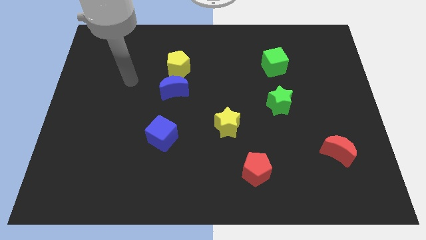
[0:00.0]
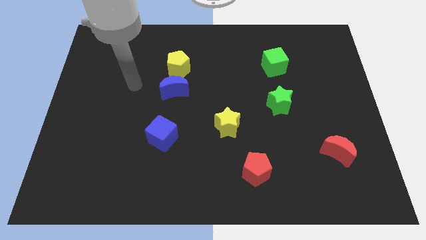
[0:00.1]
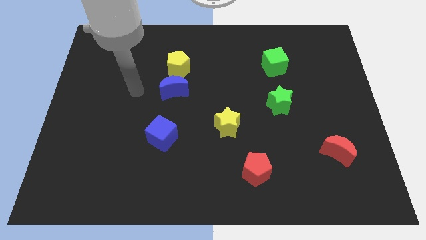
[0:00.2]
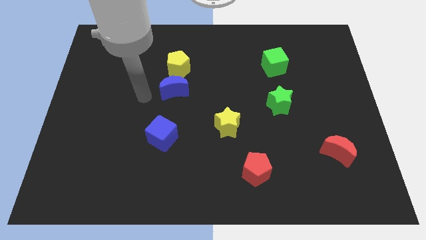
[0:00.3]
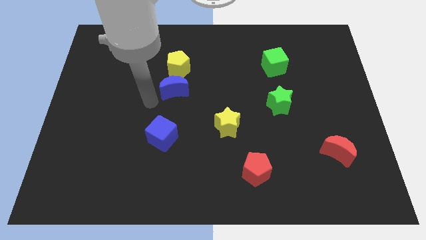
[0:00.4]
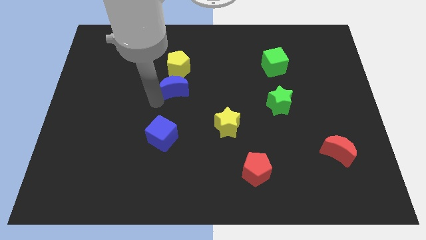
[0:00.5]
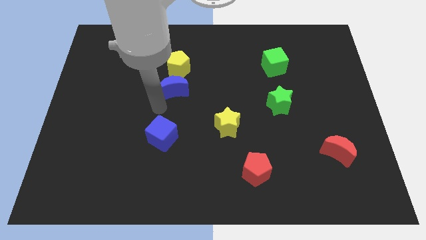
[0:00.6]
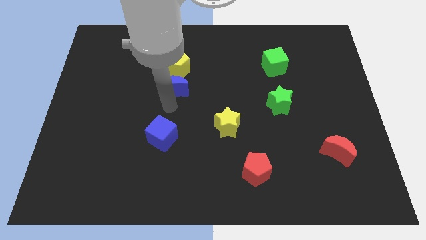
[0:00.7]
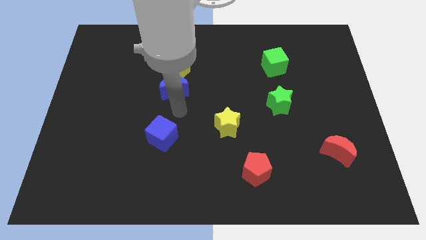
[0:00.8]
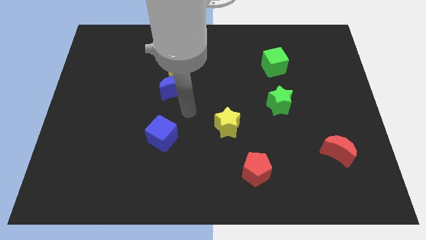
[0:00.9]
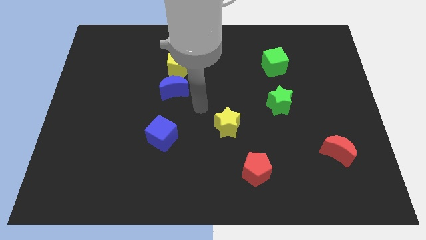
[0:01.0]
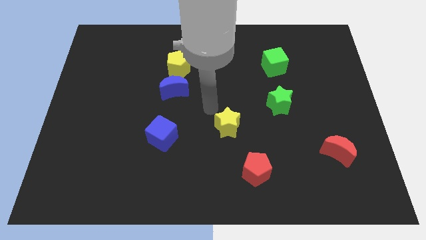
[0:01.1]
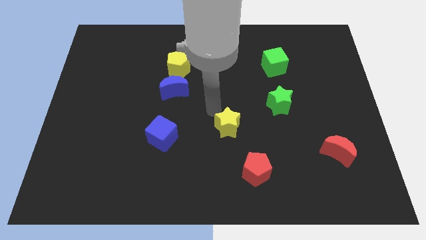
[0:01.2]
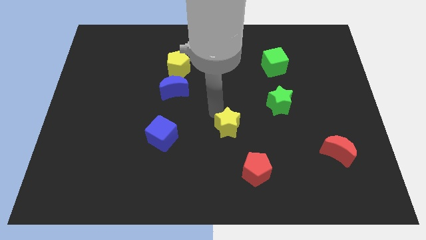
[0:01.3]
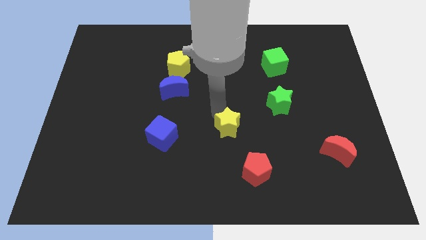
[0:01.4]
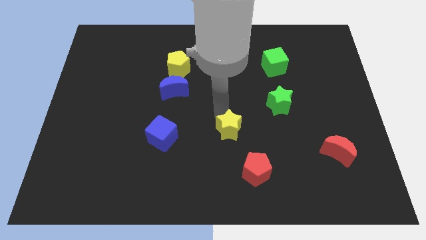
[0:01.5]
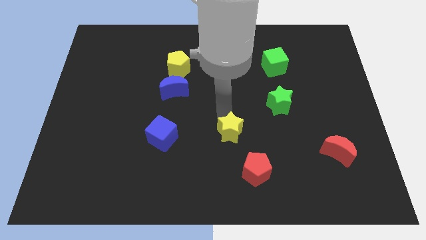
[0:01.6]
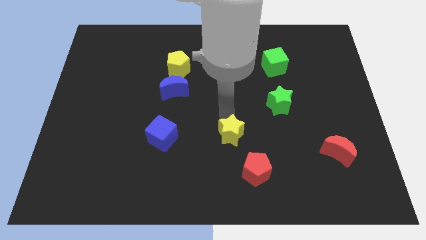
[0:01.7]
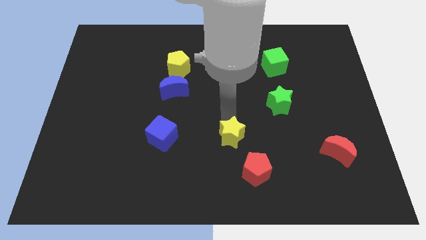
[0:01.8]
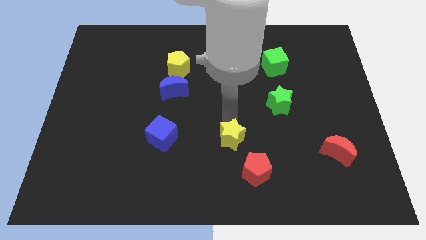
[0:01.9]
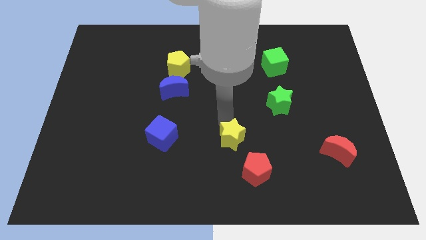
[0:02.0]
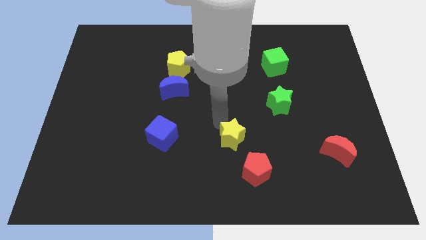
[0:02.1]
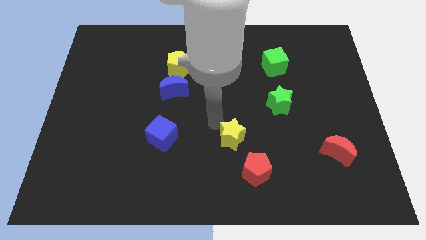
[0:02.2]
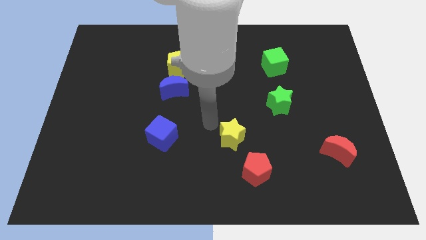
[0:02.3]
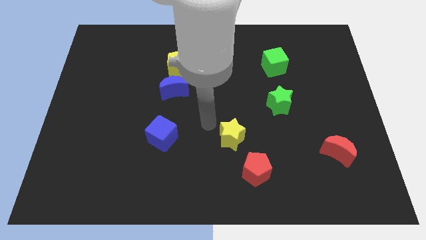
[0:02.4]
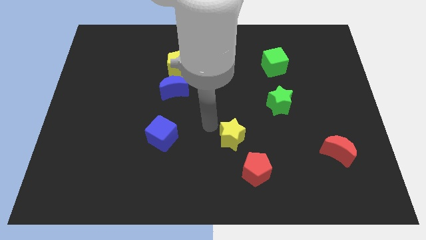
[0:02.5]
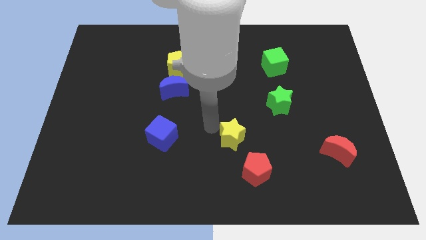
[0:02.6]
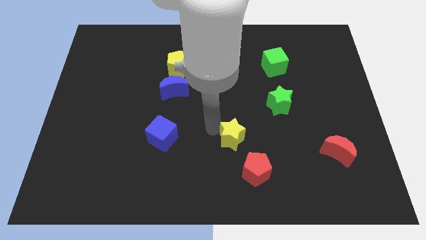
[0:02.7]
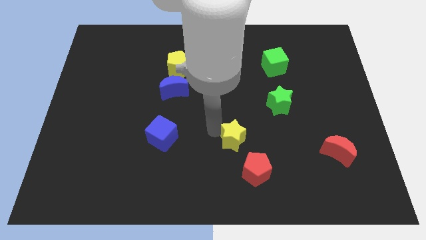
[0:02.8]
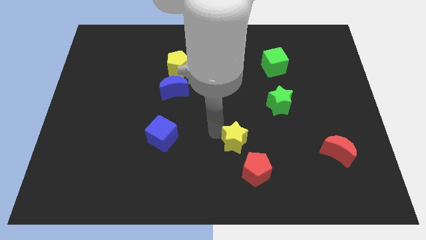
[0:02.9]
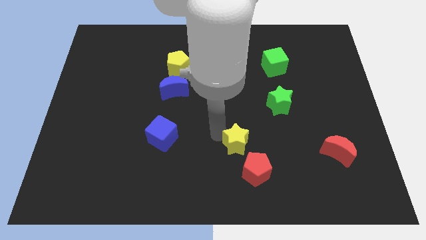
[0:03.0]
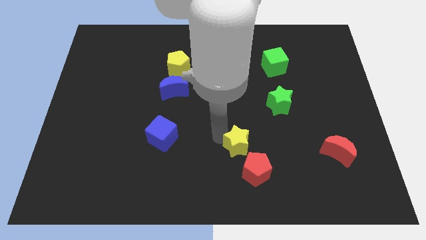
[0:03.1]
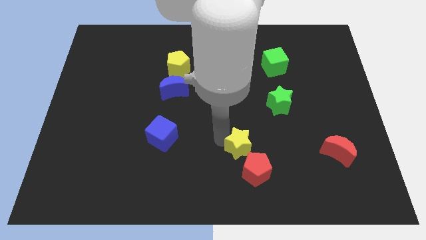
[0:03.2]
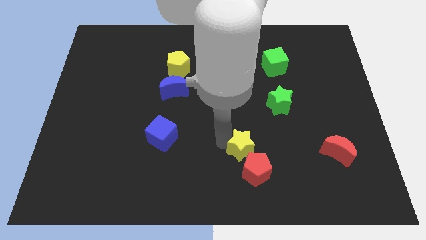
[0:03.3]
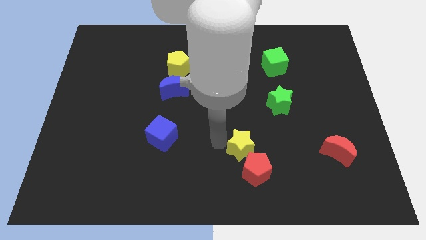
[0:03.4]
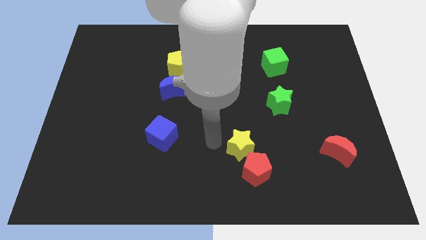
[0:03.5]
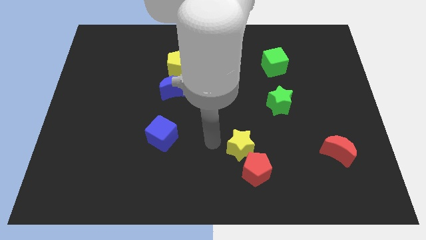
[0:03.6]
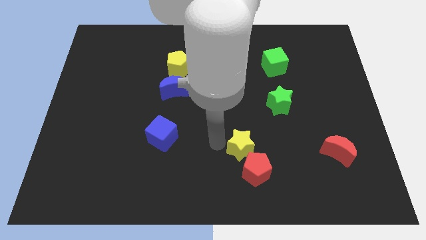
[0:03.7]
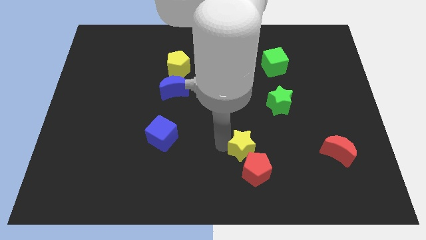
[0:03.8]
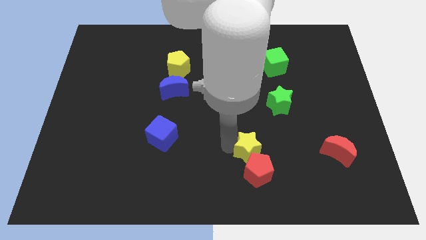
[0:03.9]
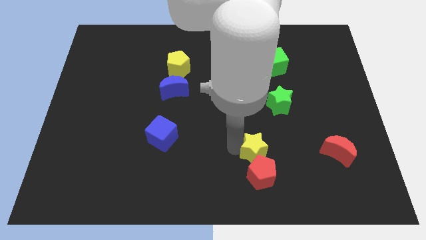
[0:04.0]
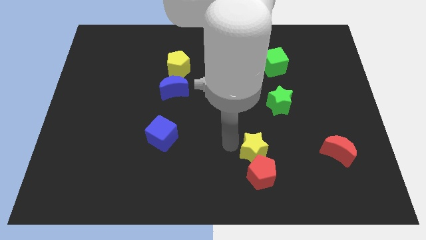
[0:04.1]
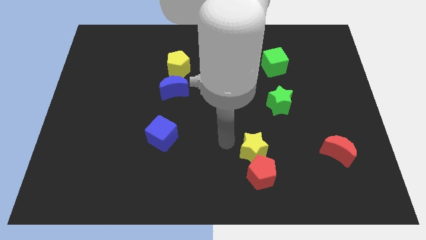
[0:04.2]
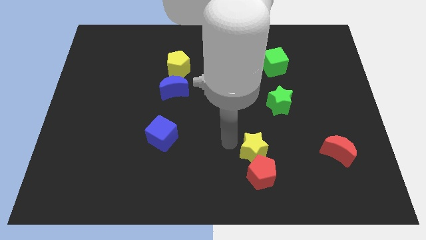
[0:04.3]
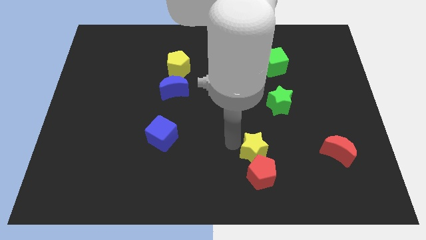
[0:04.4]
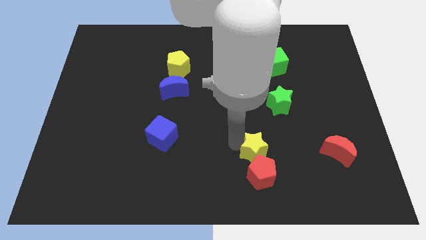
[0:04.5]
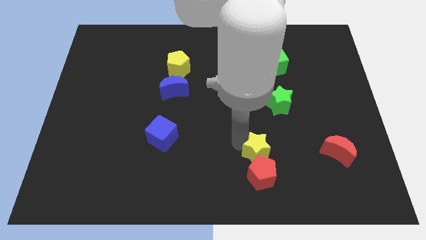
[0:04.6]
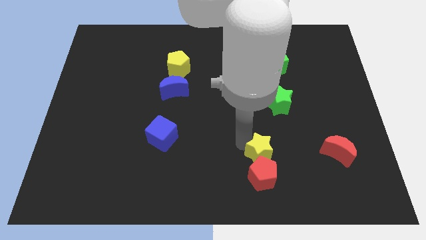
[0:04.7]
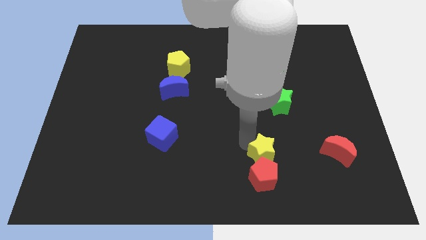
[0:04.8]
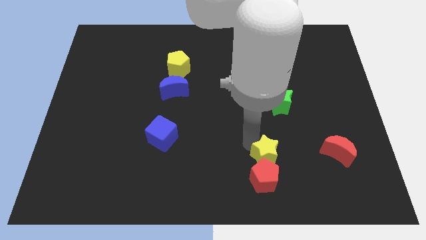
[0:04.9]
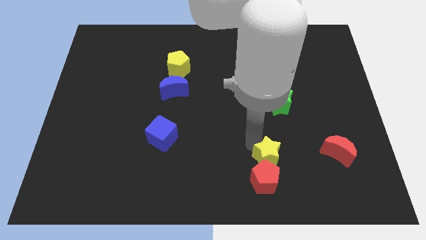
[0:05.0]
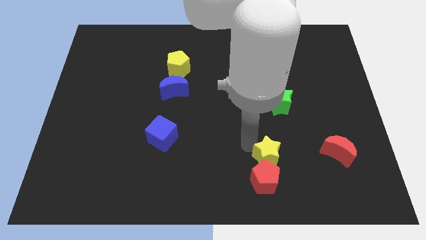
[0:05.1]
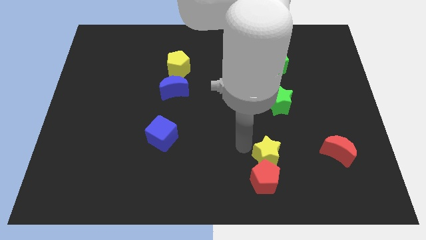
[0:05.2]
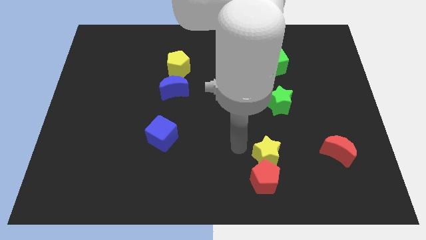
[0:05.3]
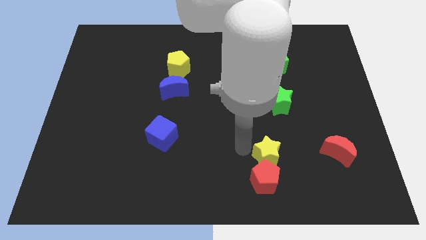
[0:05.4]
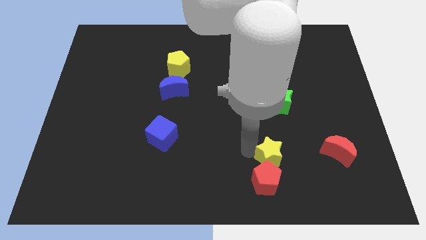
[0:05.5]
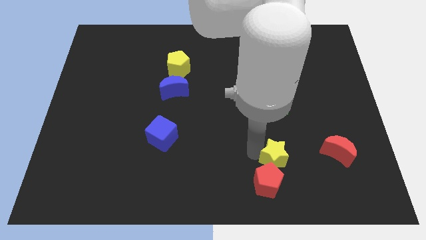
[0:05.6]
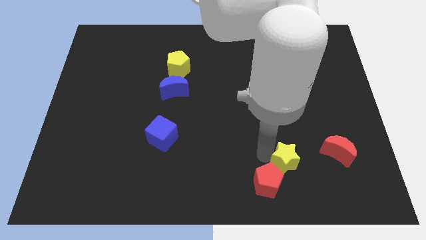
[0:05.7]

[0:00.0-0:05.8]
put the yellow star right of the red pentagon

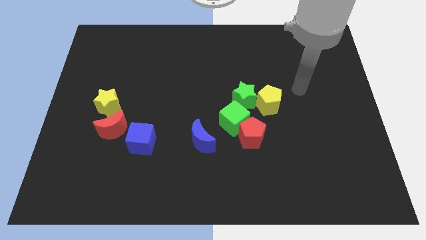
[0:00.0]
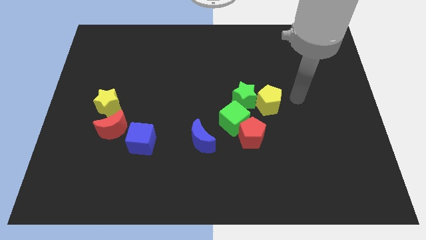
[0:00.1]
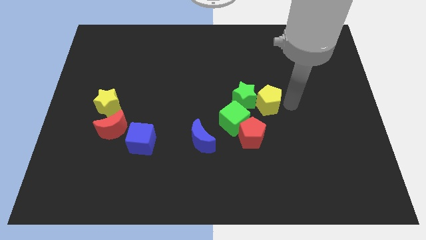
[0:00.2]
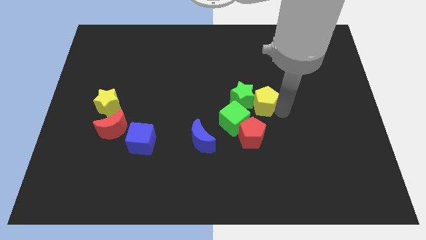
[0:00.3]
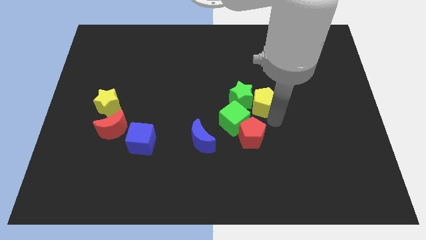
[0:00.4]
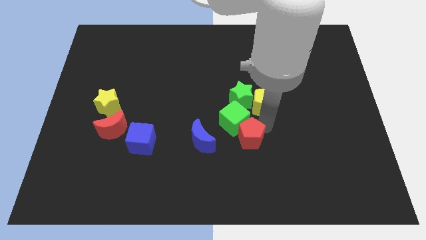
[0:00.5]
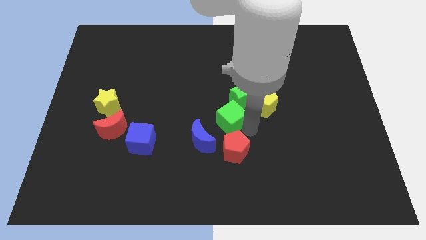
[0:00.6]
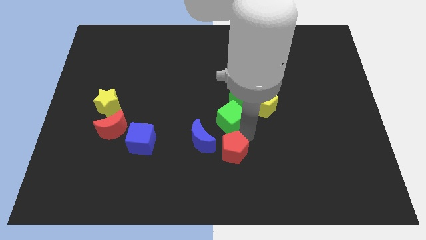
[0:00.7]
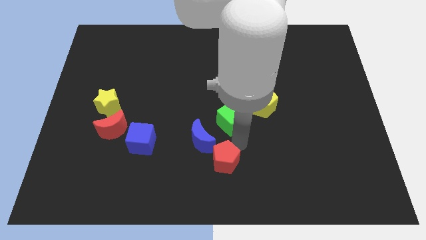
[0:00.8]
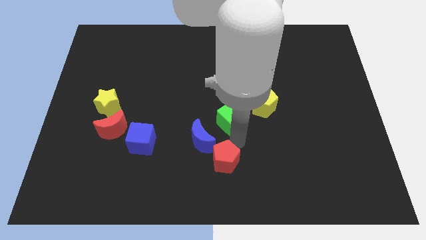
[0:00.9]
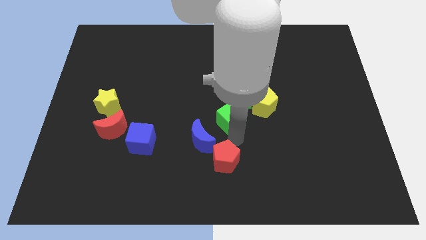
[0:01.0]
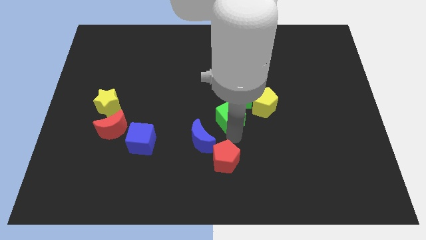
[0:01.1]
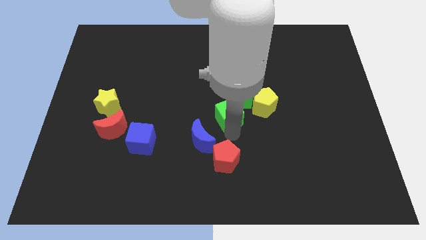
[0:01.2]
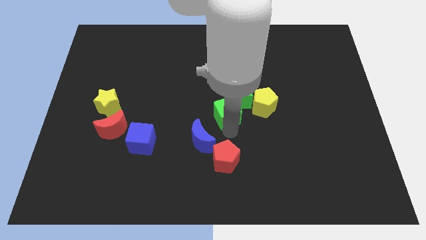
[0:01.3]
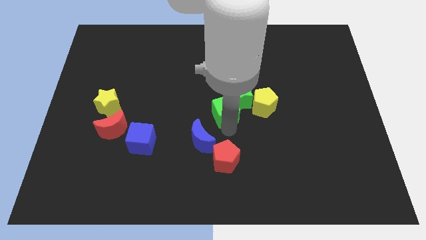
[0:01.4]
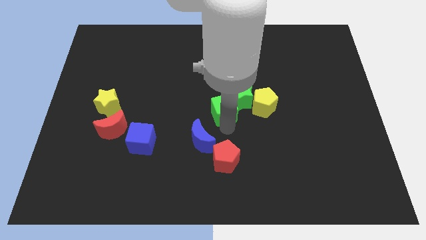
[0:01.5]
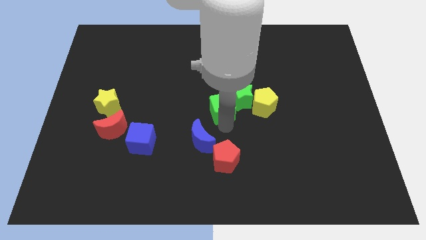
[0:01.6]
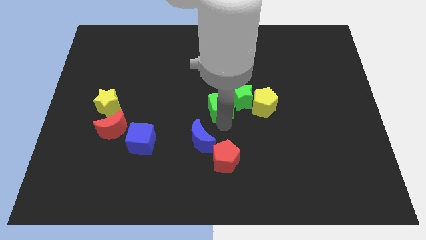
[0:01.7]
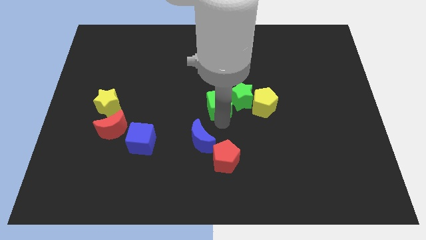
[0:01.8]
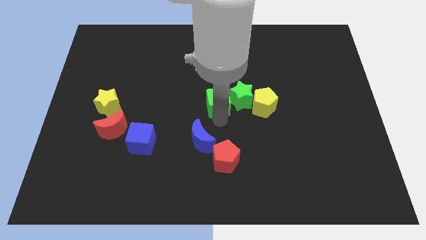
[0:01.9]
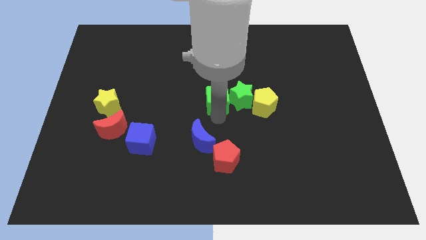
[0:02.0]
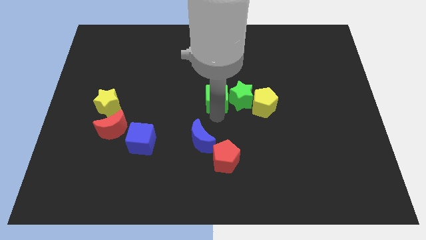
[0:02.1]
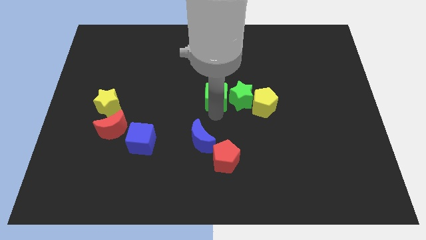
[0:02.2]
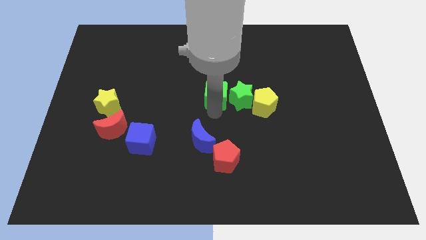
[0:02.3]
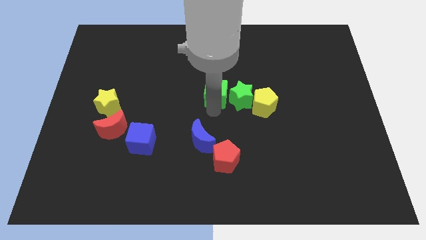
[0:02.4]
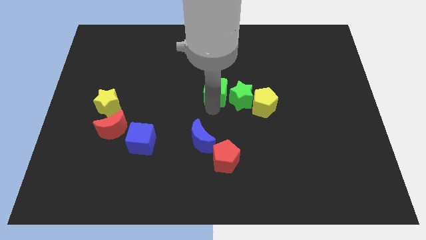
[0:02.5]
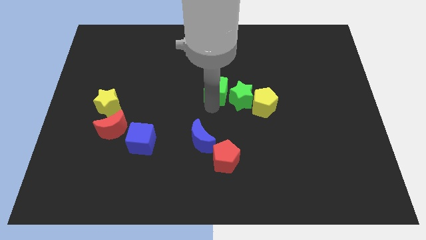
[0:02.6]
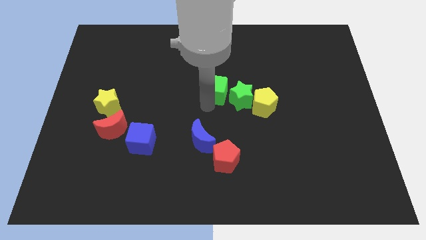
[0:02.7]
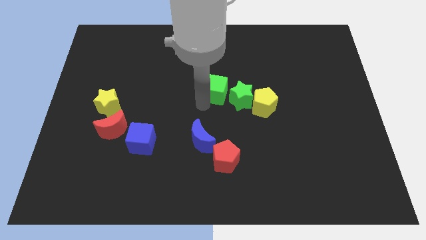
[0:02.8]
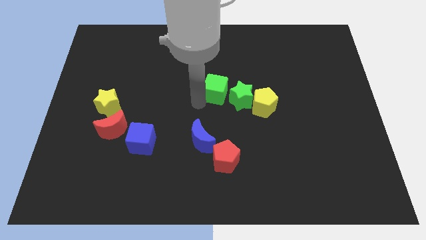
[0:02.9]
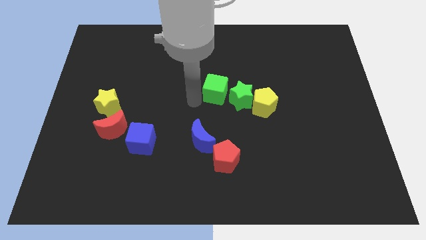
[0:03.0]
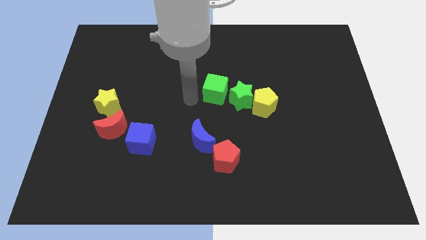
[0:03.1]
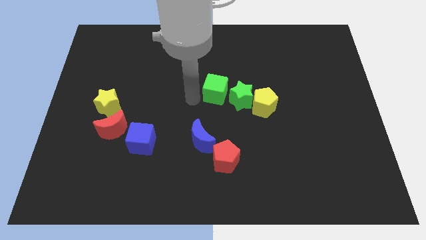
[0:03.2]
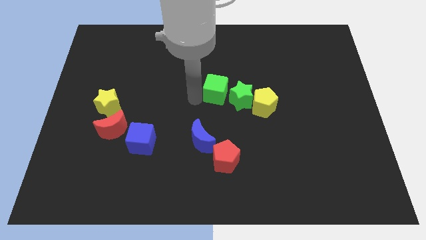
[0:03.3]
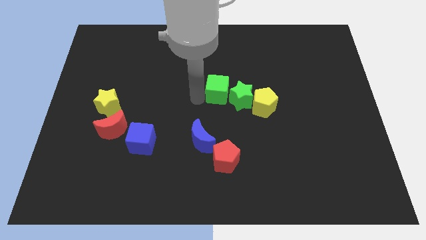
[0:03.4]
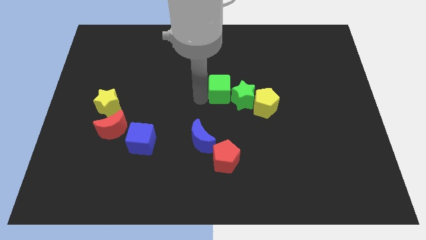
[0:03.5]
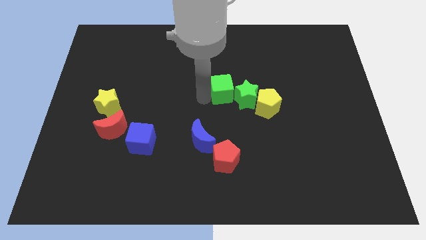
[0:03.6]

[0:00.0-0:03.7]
move the green cube to the top left of the yellow pentagon
